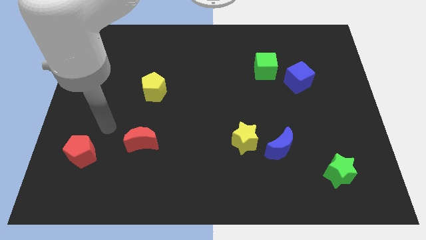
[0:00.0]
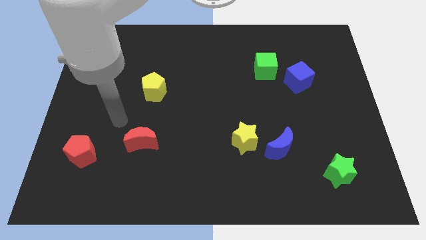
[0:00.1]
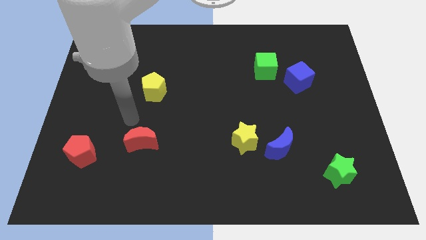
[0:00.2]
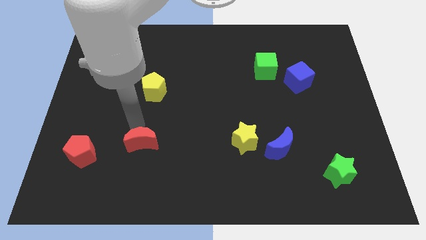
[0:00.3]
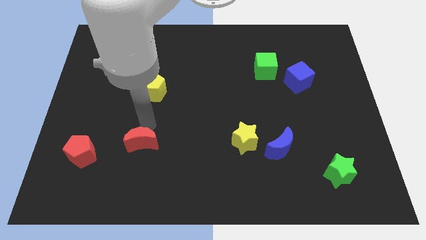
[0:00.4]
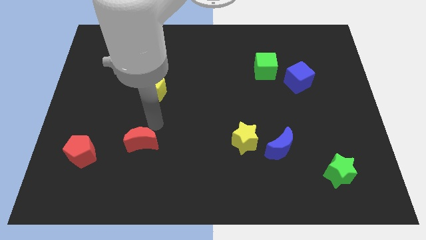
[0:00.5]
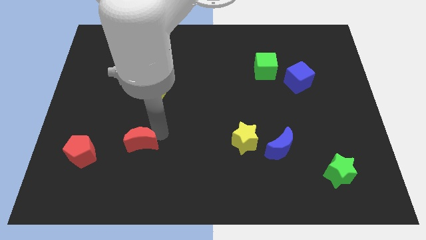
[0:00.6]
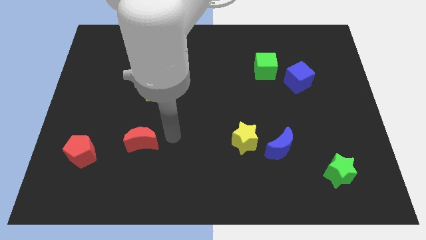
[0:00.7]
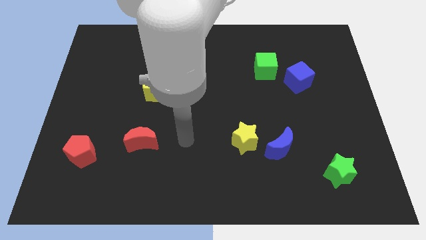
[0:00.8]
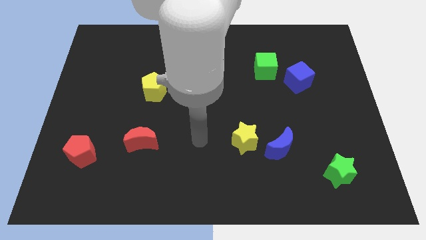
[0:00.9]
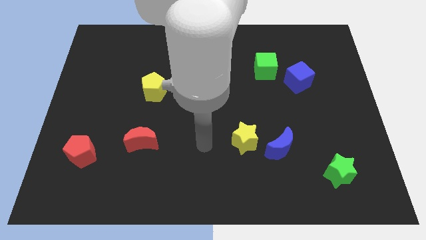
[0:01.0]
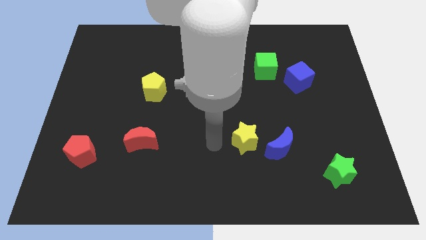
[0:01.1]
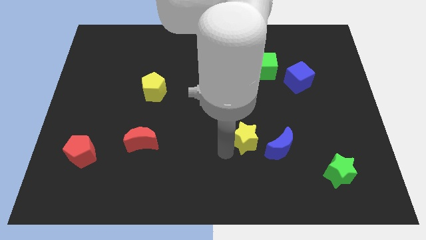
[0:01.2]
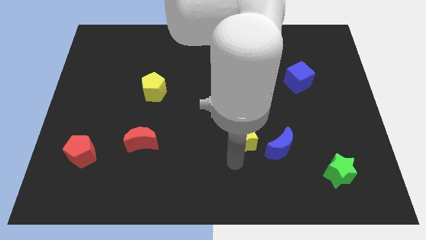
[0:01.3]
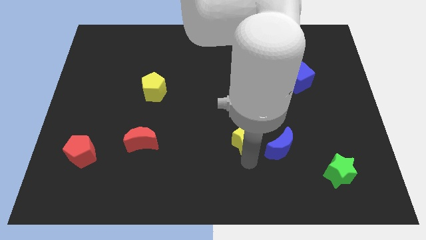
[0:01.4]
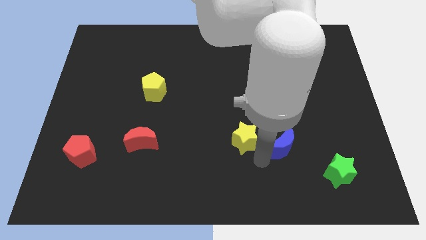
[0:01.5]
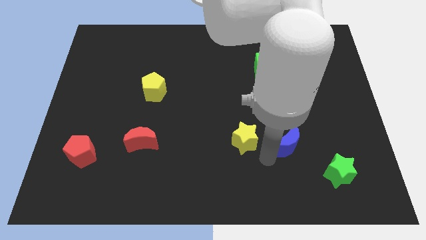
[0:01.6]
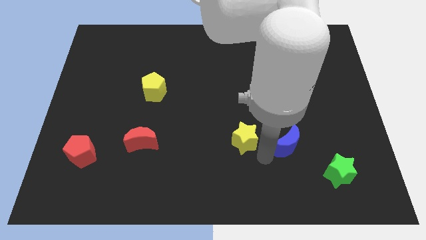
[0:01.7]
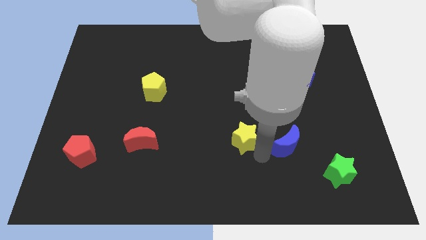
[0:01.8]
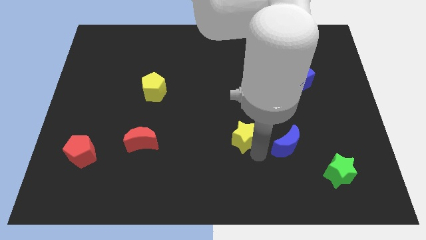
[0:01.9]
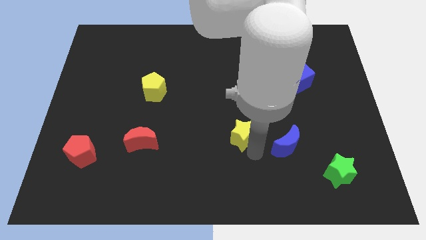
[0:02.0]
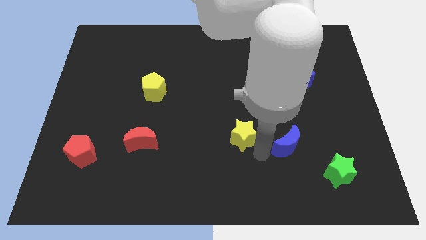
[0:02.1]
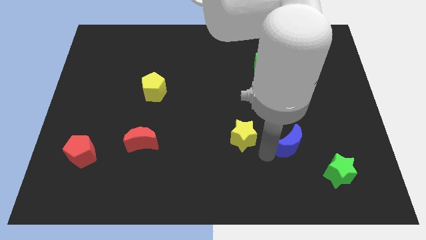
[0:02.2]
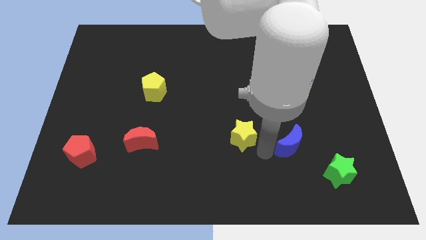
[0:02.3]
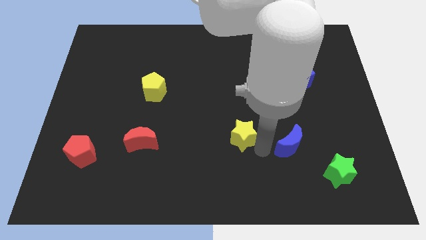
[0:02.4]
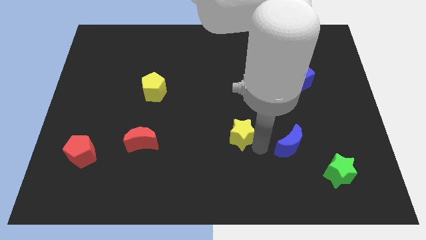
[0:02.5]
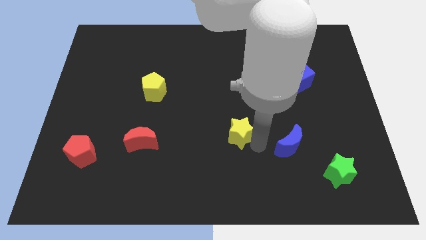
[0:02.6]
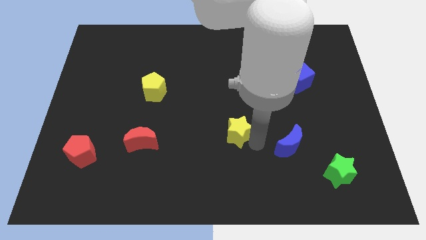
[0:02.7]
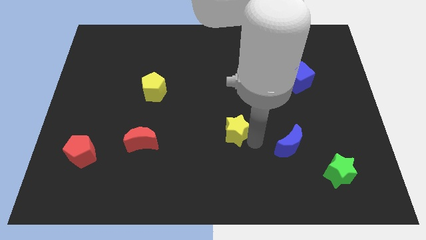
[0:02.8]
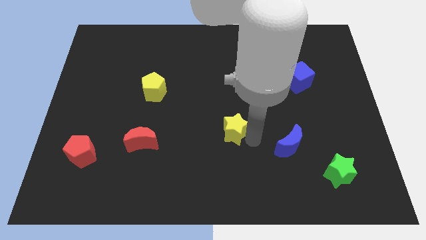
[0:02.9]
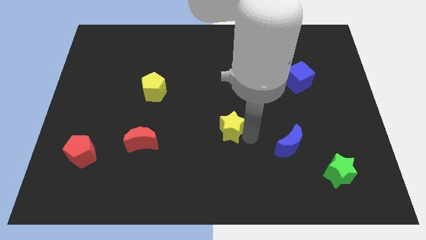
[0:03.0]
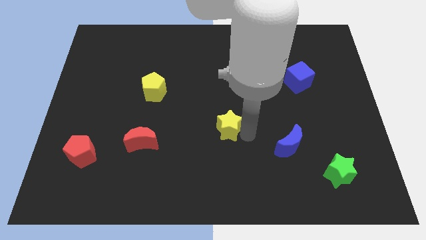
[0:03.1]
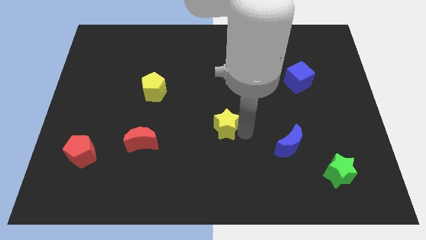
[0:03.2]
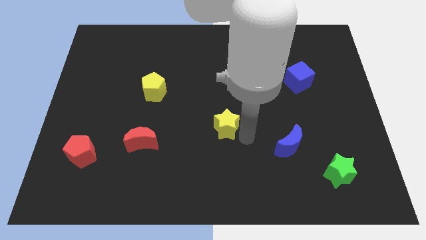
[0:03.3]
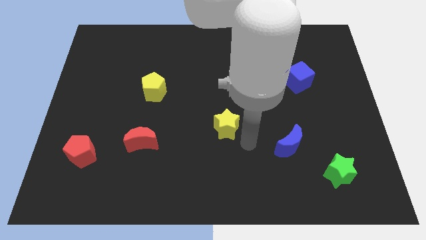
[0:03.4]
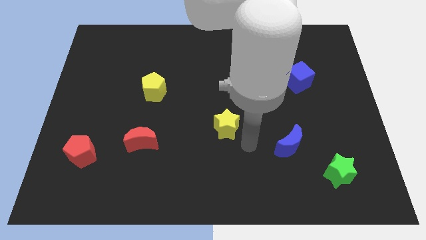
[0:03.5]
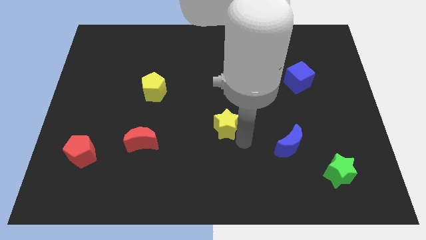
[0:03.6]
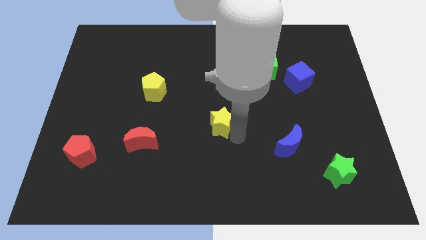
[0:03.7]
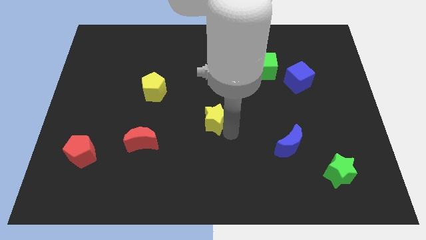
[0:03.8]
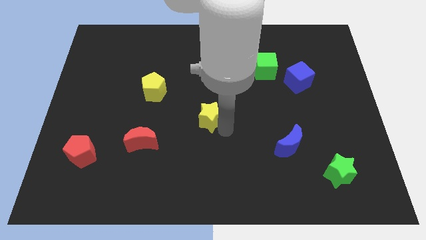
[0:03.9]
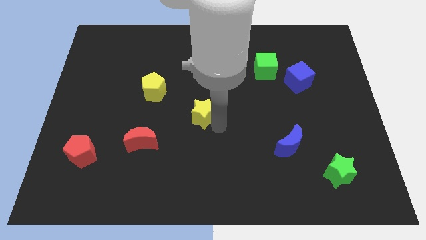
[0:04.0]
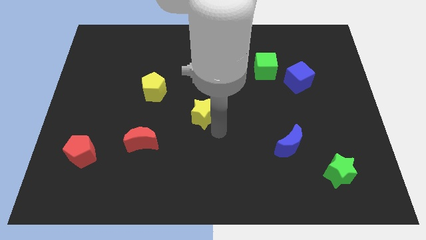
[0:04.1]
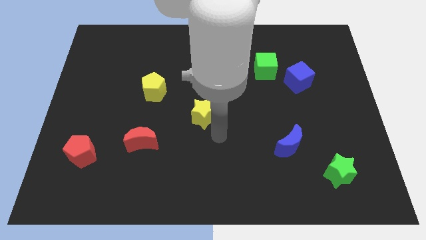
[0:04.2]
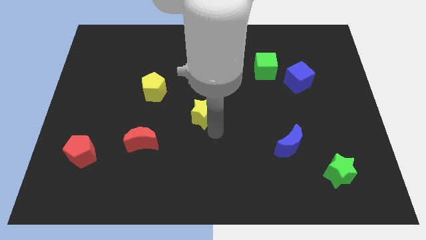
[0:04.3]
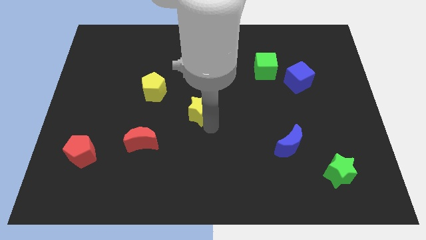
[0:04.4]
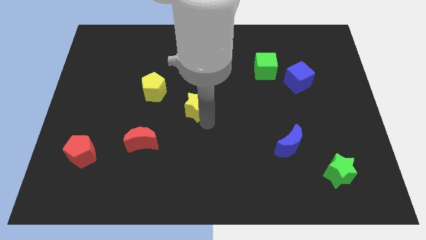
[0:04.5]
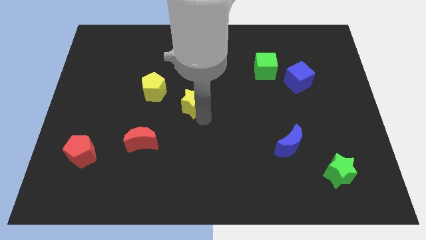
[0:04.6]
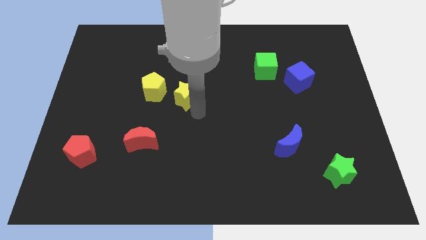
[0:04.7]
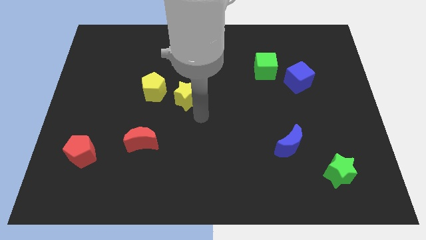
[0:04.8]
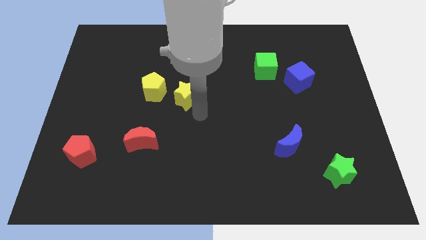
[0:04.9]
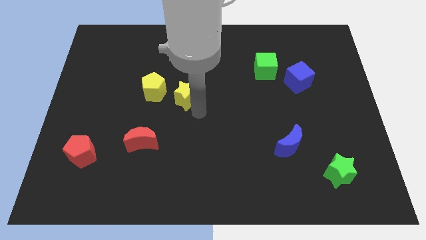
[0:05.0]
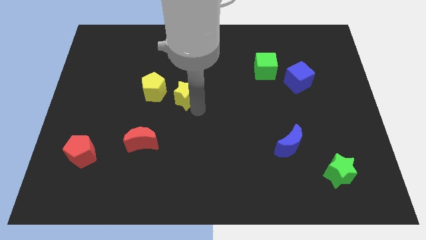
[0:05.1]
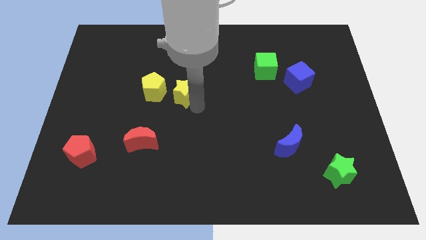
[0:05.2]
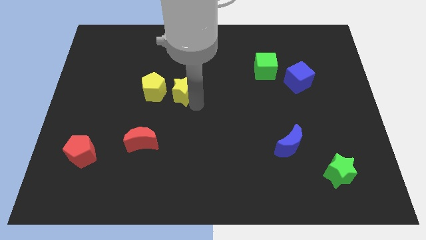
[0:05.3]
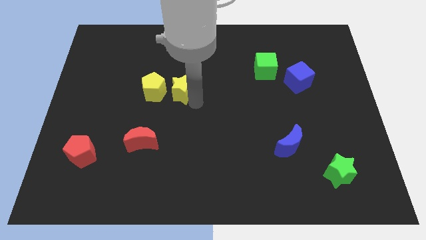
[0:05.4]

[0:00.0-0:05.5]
slide the yellow star upwards and then left

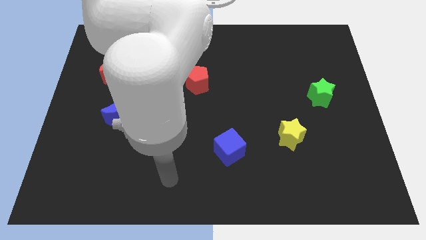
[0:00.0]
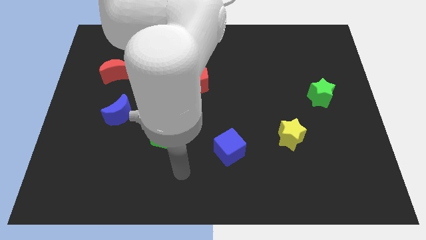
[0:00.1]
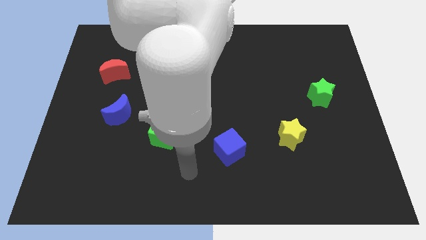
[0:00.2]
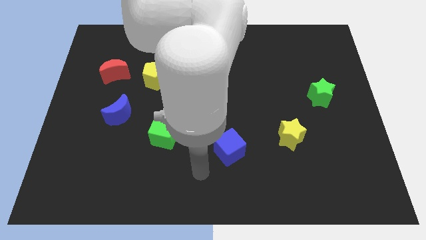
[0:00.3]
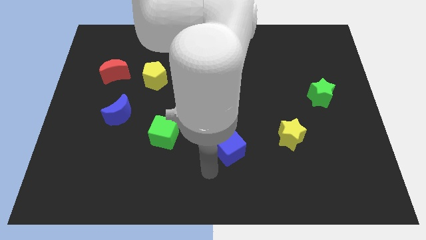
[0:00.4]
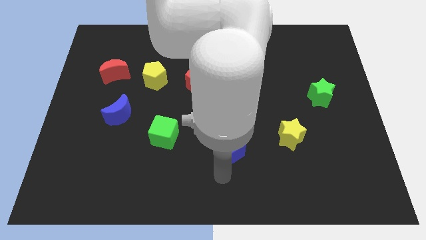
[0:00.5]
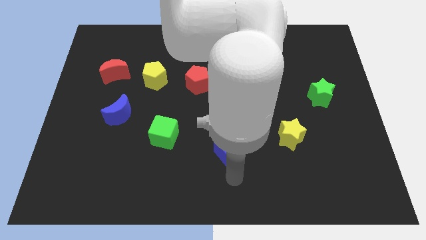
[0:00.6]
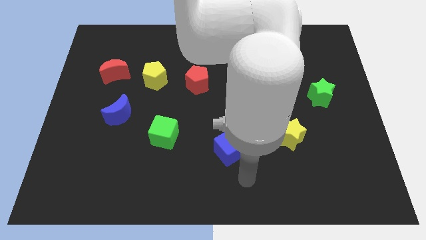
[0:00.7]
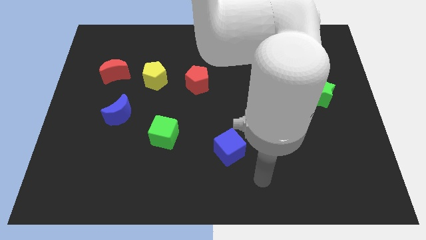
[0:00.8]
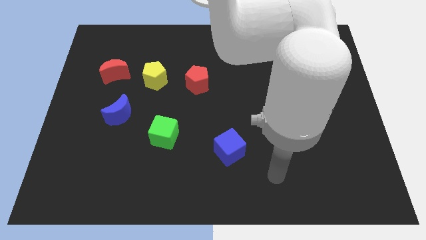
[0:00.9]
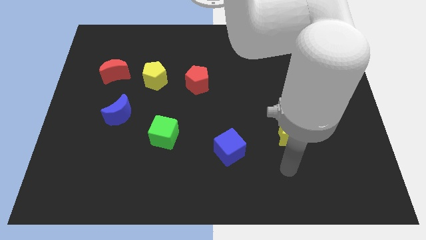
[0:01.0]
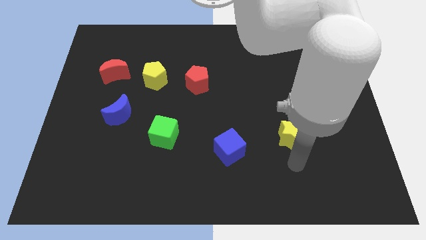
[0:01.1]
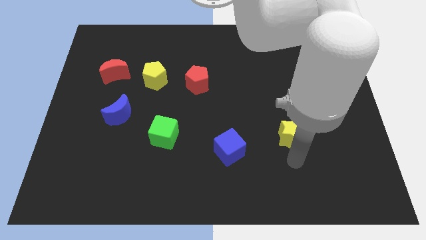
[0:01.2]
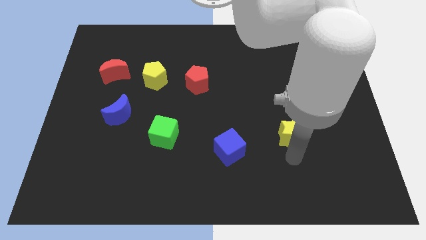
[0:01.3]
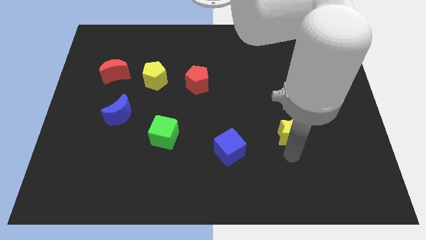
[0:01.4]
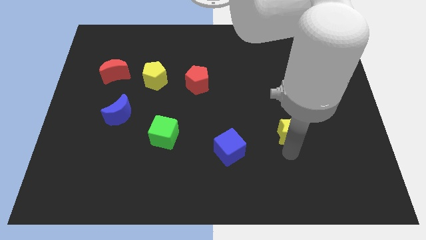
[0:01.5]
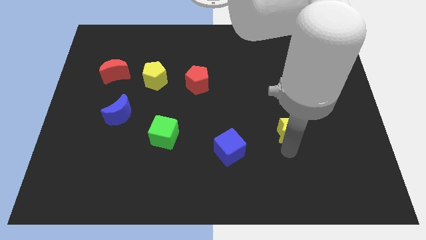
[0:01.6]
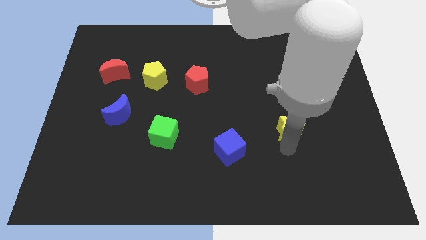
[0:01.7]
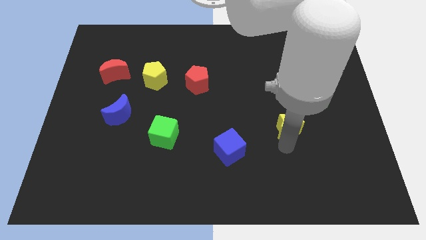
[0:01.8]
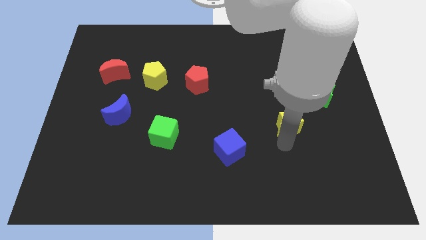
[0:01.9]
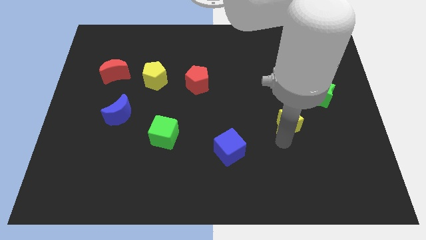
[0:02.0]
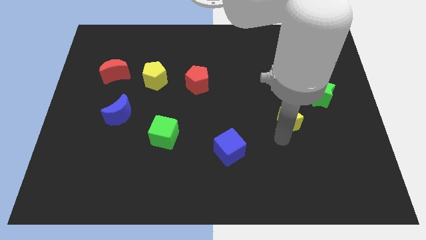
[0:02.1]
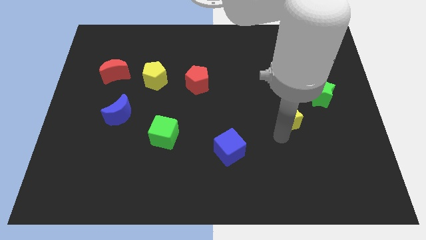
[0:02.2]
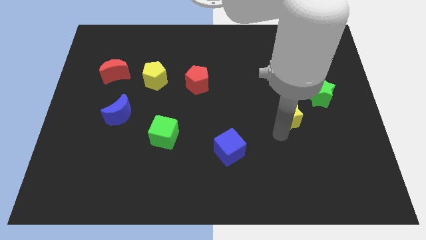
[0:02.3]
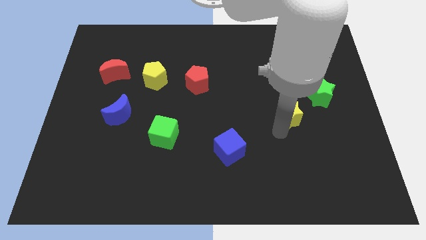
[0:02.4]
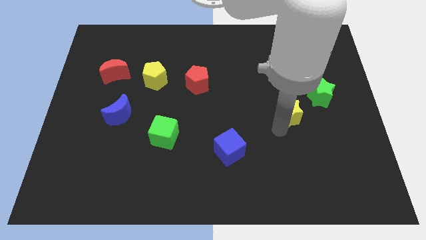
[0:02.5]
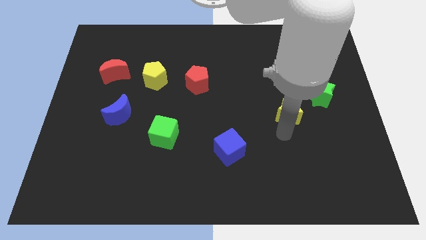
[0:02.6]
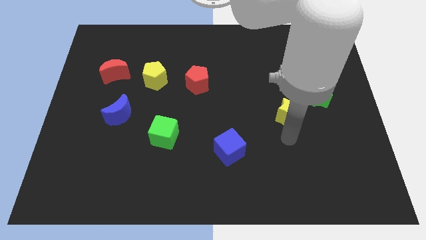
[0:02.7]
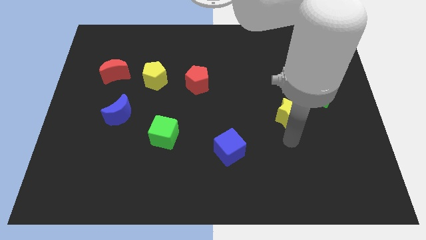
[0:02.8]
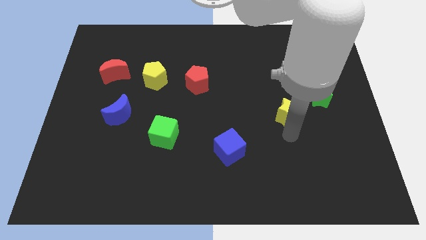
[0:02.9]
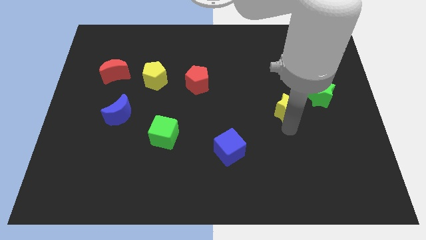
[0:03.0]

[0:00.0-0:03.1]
move the yellow star up a bit
